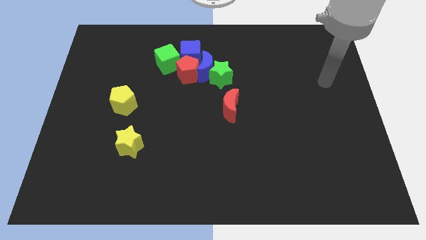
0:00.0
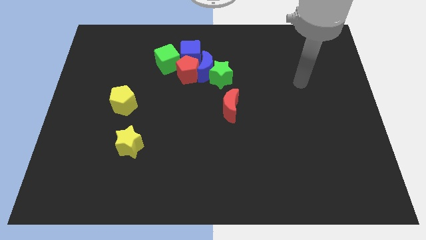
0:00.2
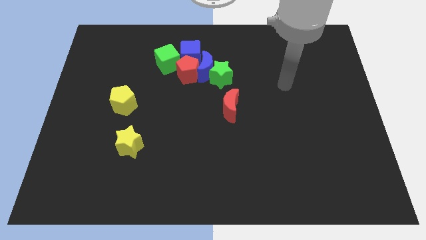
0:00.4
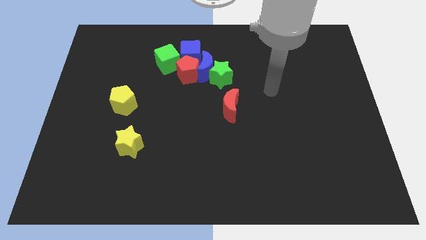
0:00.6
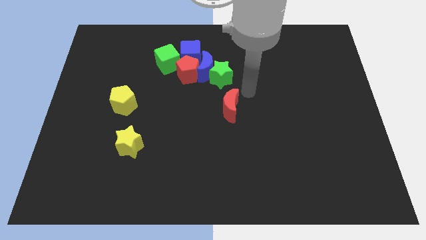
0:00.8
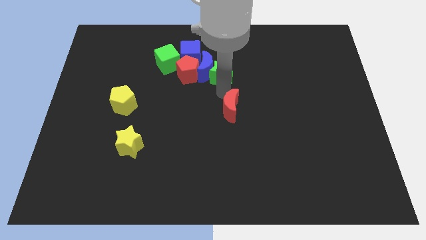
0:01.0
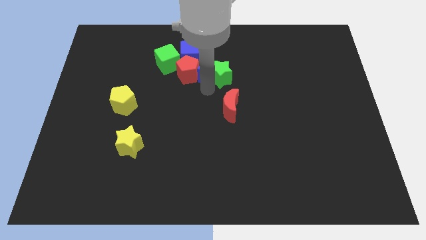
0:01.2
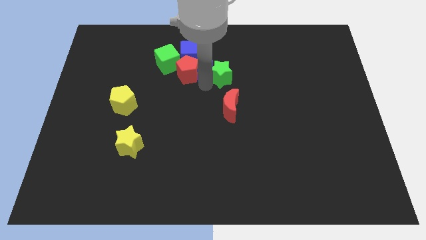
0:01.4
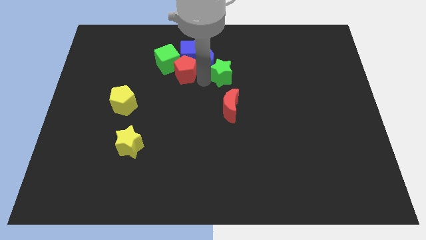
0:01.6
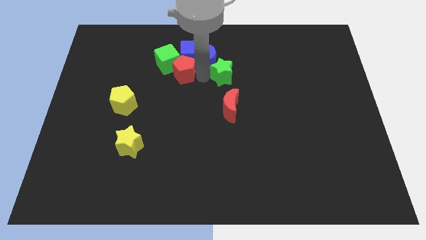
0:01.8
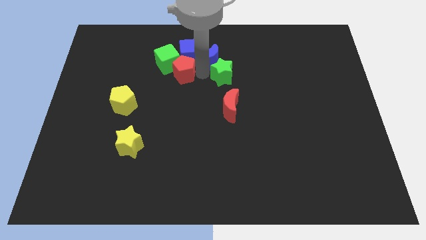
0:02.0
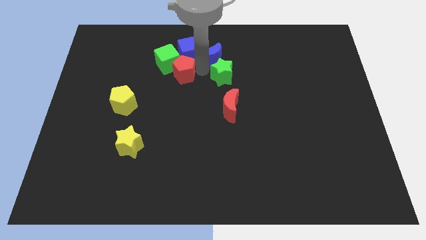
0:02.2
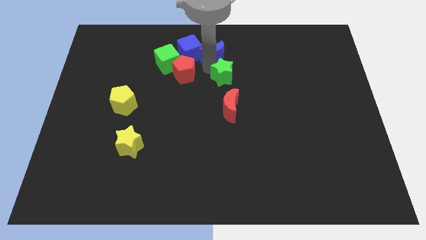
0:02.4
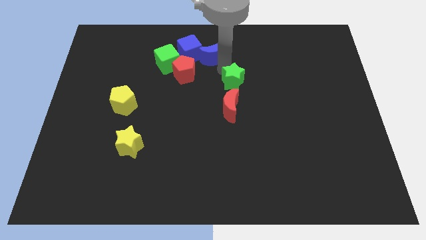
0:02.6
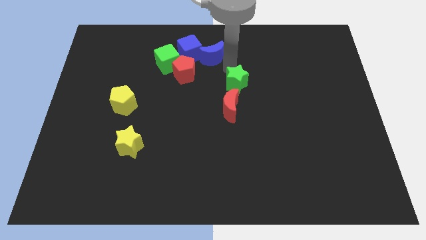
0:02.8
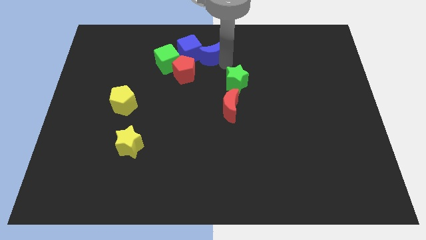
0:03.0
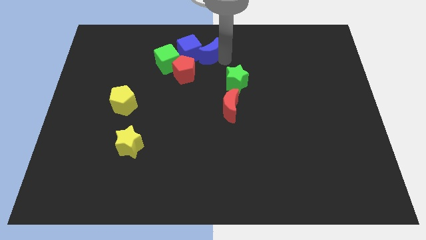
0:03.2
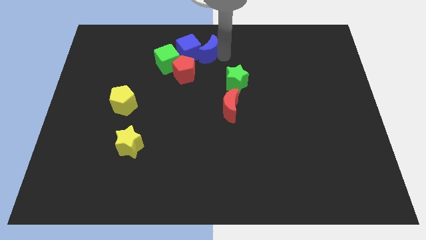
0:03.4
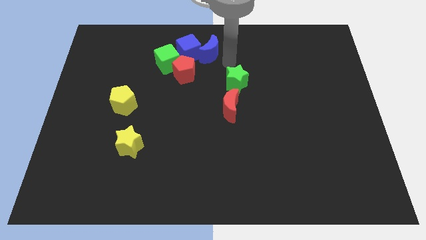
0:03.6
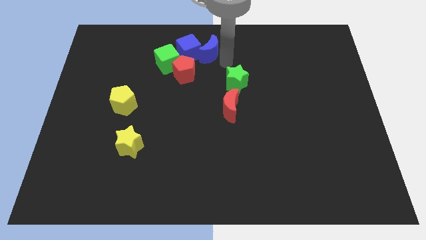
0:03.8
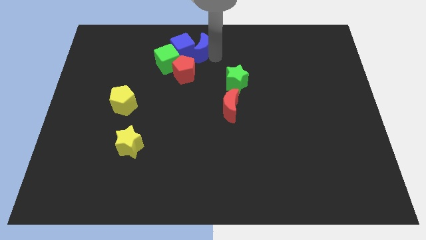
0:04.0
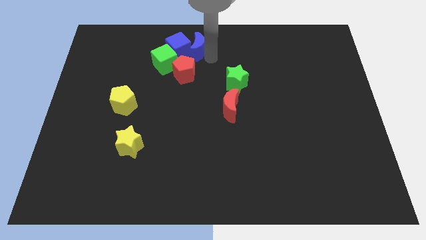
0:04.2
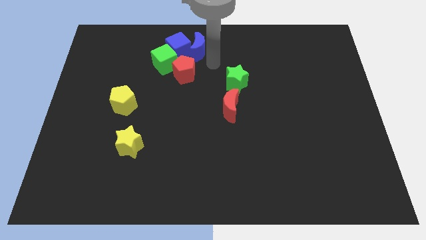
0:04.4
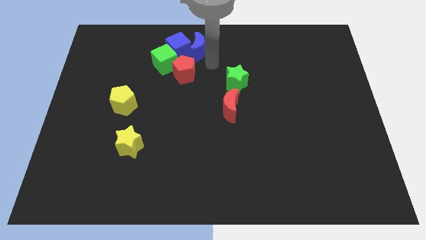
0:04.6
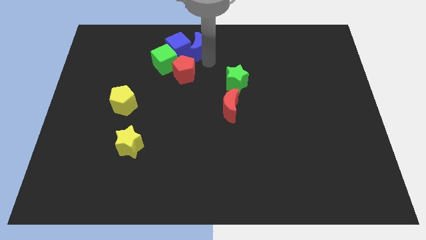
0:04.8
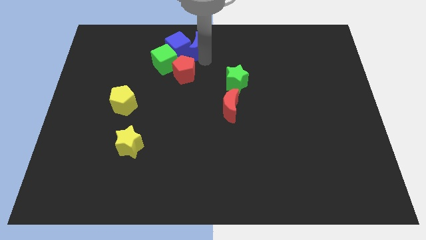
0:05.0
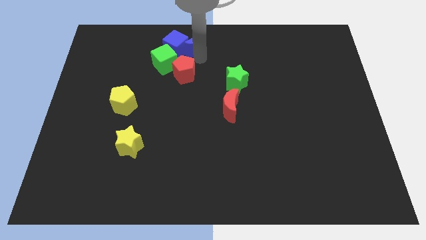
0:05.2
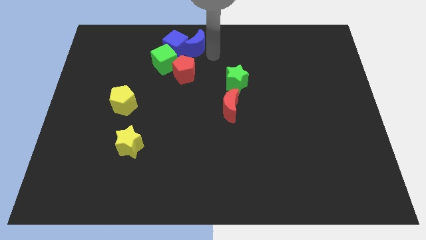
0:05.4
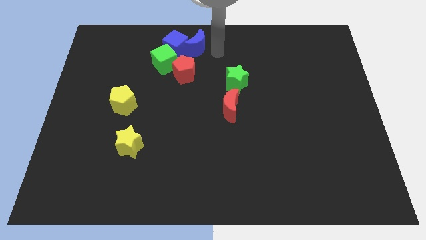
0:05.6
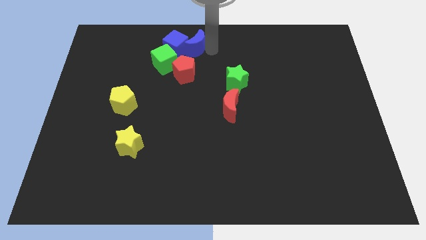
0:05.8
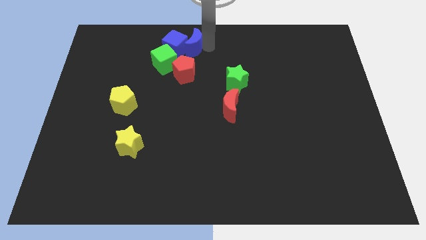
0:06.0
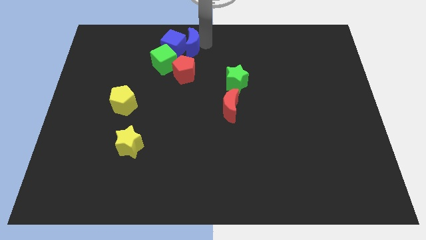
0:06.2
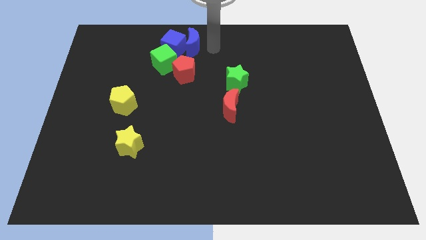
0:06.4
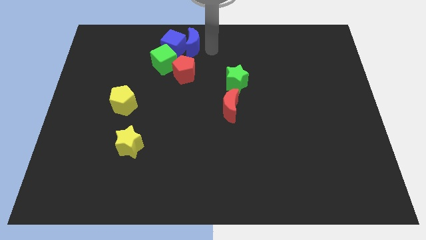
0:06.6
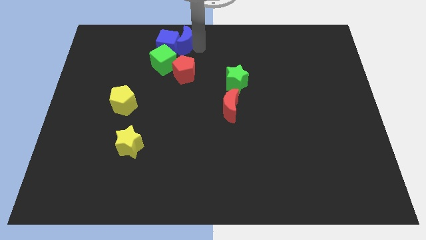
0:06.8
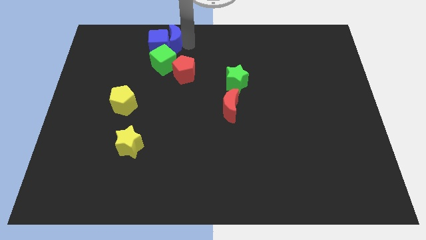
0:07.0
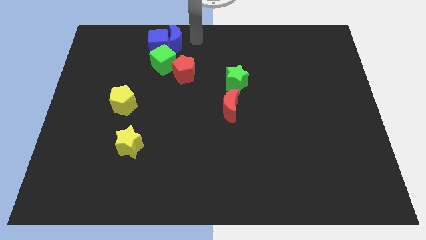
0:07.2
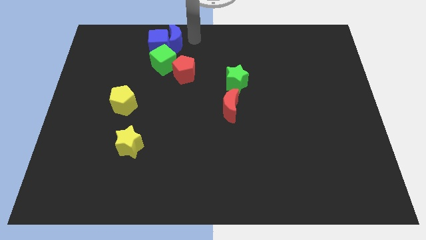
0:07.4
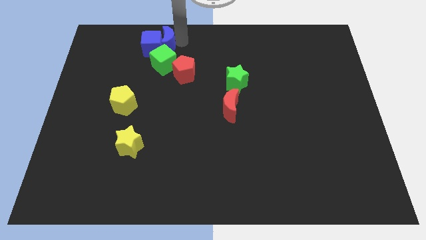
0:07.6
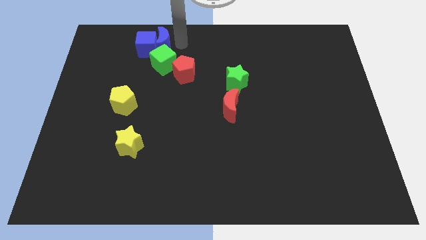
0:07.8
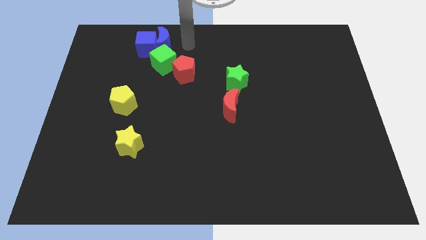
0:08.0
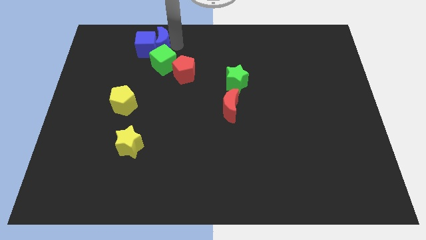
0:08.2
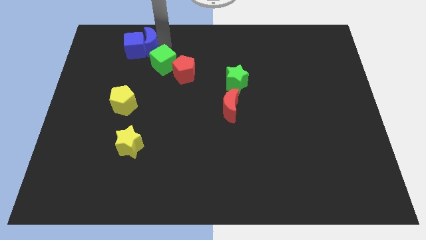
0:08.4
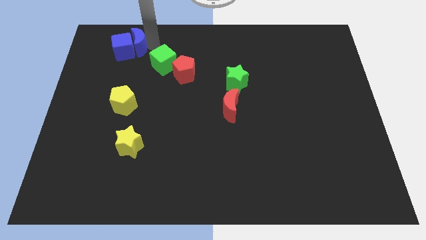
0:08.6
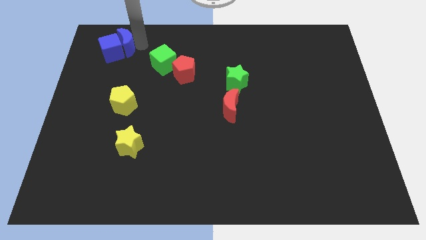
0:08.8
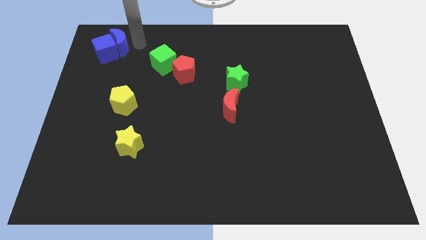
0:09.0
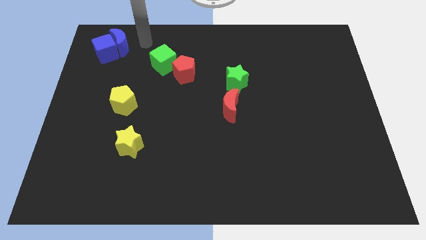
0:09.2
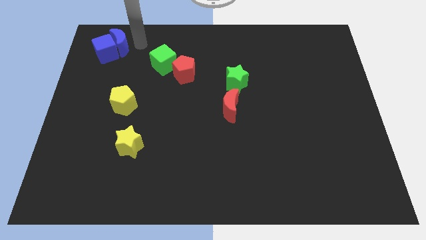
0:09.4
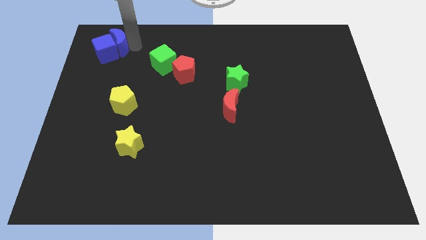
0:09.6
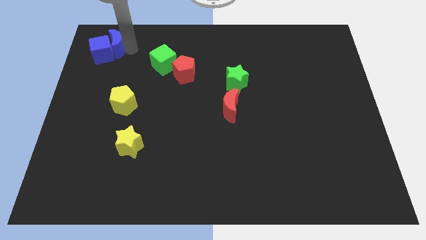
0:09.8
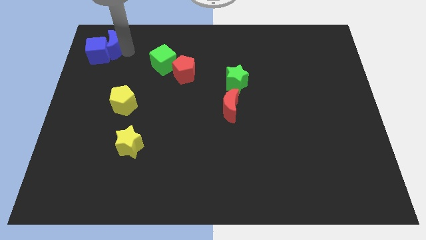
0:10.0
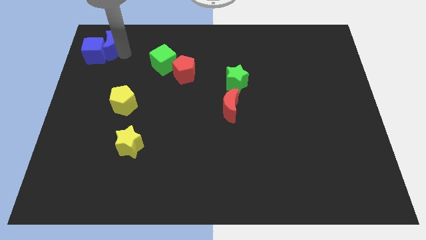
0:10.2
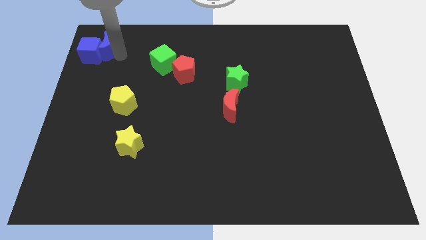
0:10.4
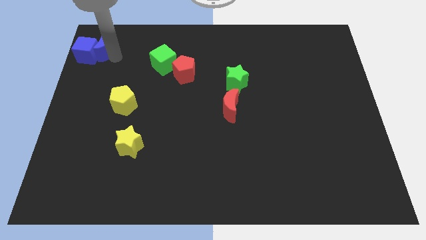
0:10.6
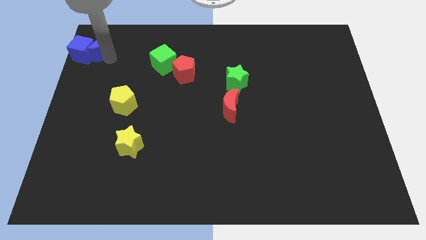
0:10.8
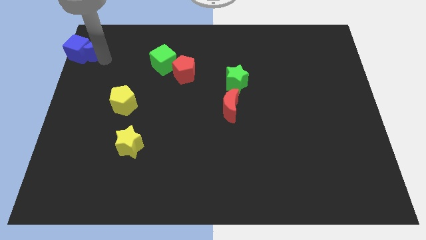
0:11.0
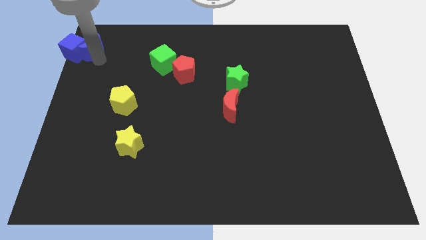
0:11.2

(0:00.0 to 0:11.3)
put the blue moon to the top left corner

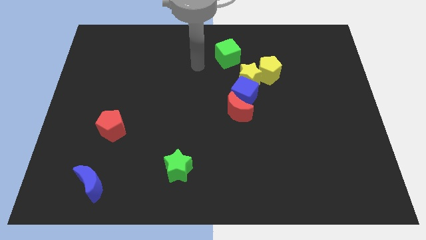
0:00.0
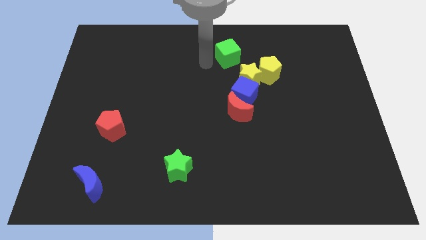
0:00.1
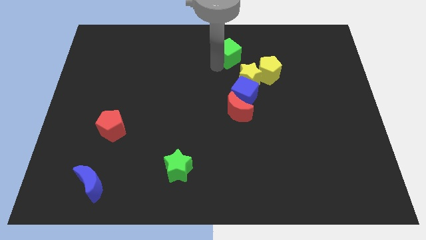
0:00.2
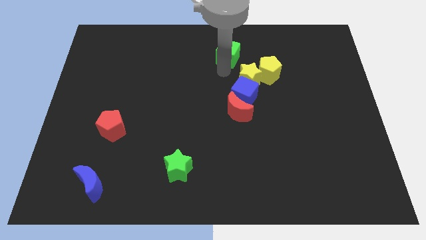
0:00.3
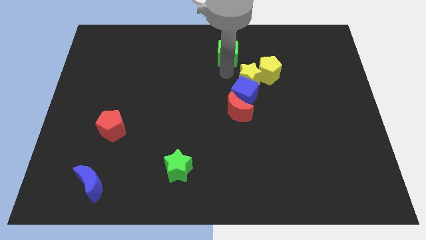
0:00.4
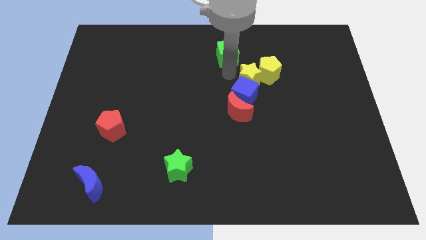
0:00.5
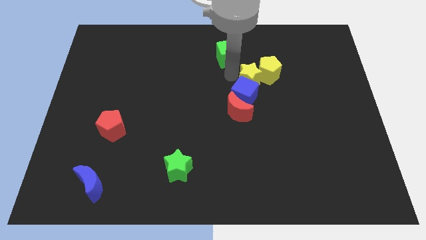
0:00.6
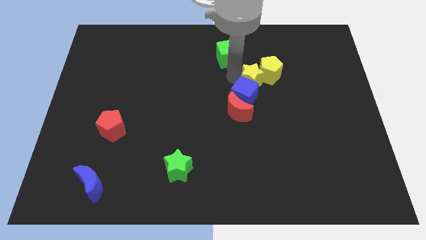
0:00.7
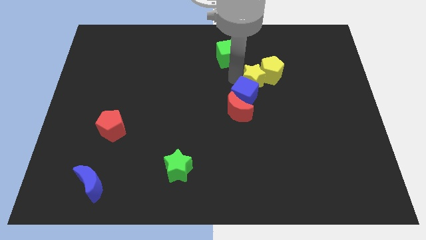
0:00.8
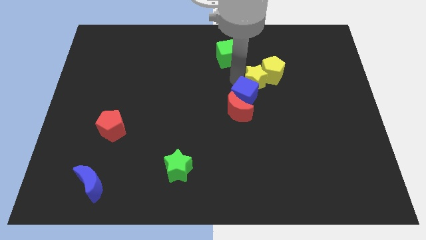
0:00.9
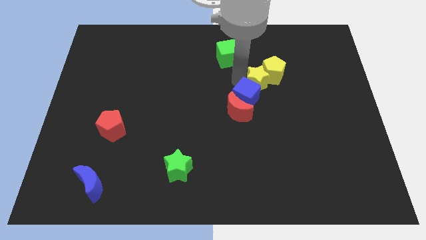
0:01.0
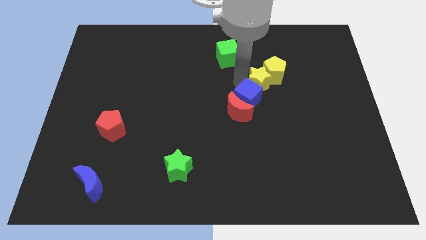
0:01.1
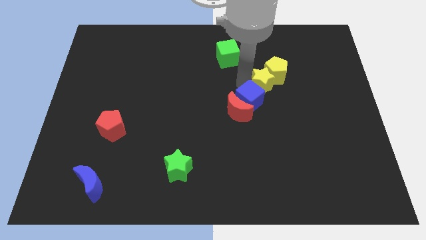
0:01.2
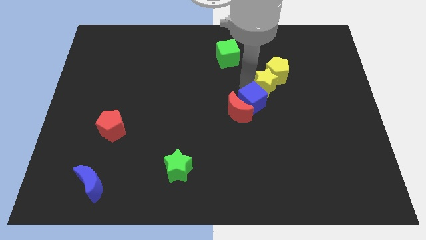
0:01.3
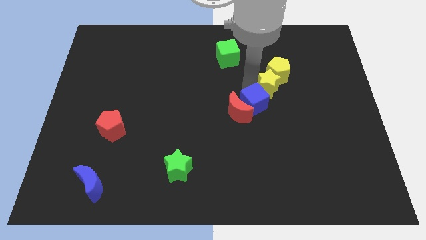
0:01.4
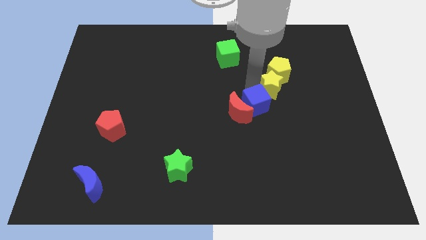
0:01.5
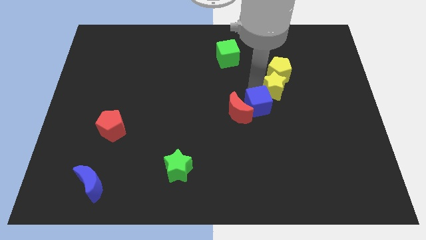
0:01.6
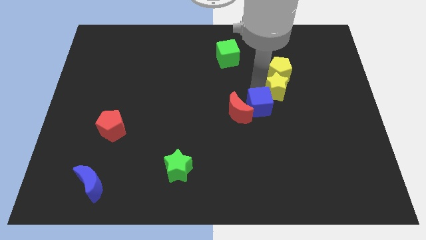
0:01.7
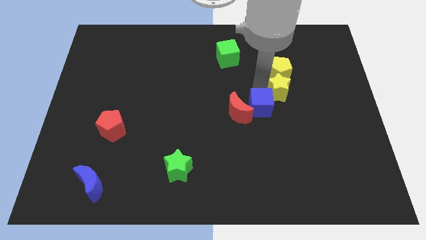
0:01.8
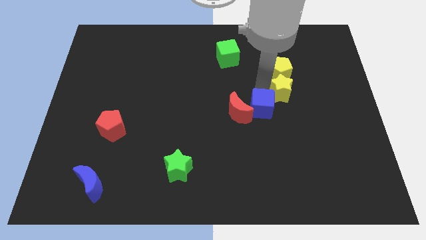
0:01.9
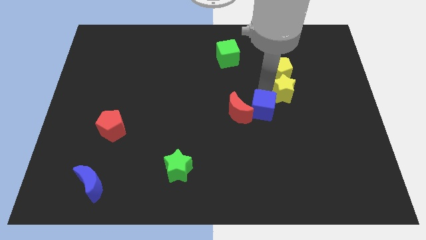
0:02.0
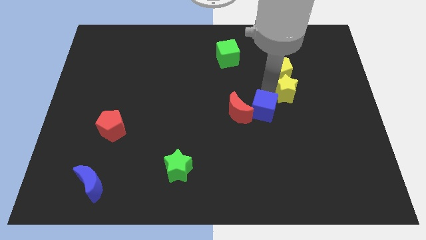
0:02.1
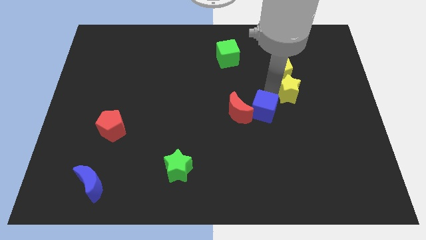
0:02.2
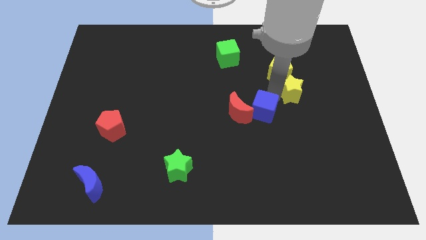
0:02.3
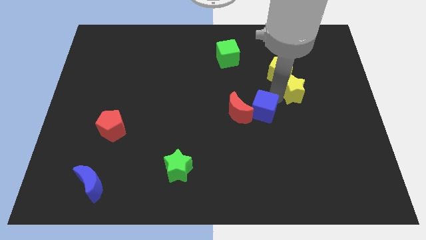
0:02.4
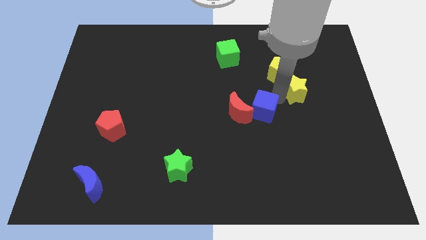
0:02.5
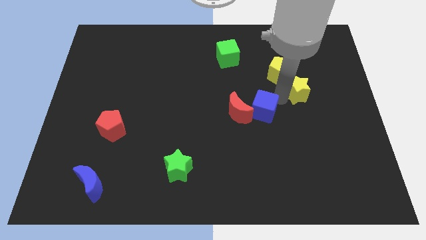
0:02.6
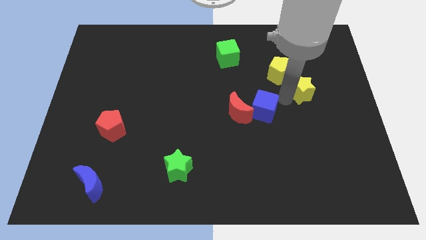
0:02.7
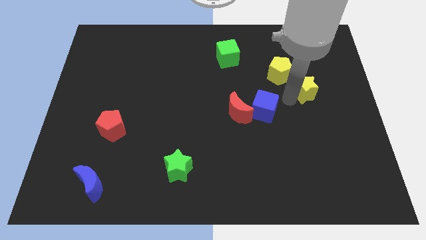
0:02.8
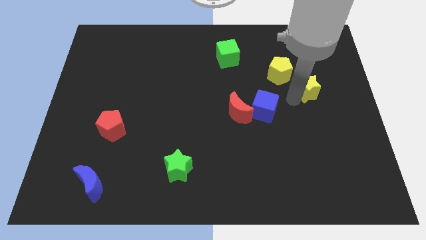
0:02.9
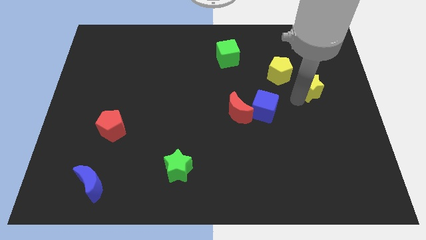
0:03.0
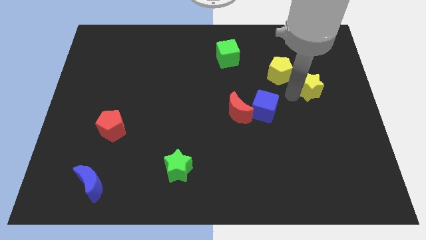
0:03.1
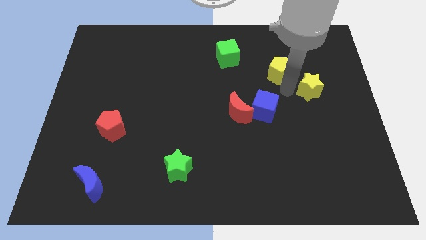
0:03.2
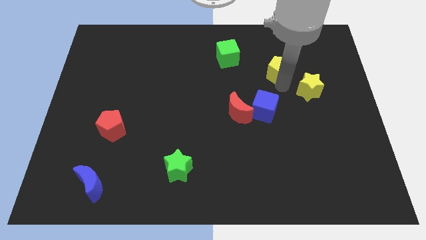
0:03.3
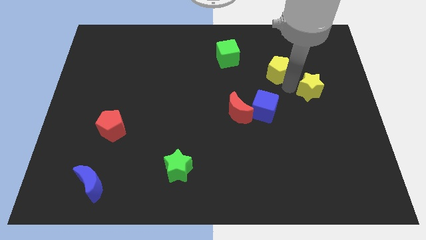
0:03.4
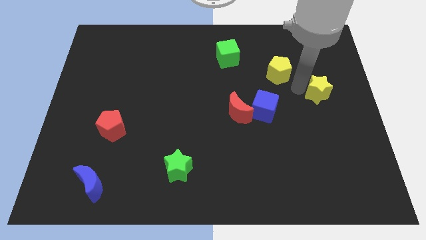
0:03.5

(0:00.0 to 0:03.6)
put the yellow star to the right side
